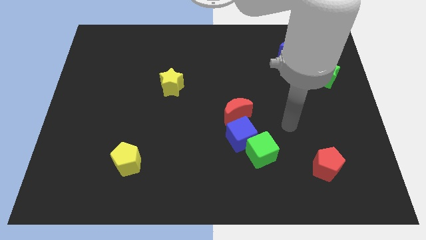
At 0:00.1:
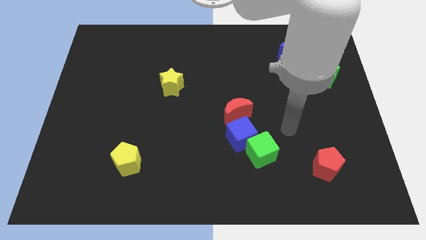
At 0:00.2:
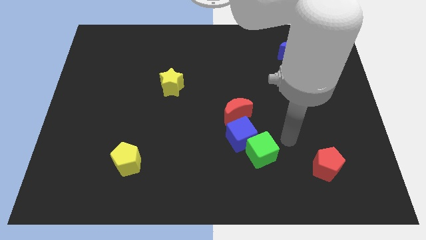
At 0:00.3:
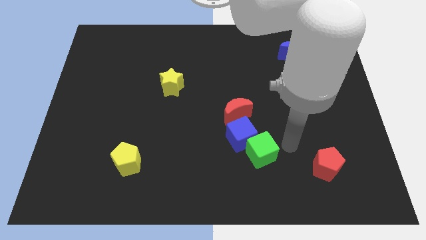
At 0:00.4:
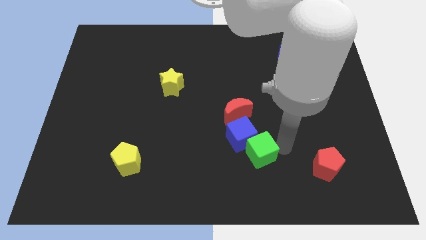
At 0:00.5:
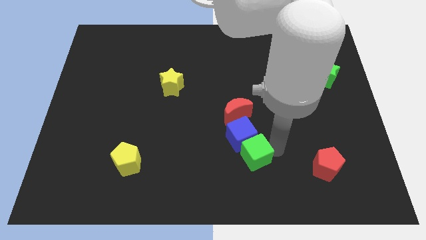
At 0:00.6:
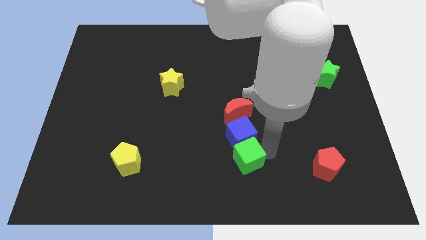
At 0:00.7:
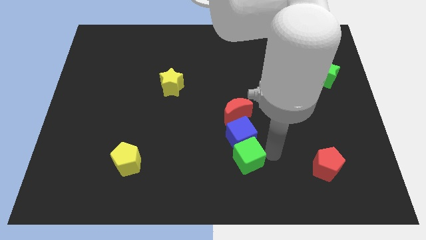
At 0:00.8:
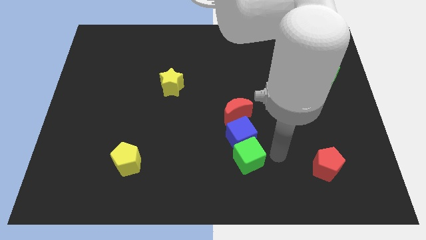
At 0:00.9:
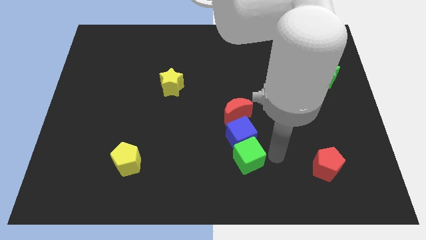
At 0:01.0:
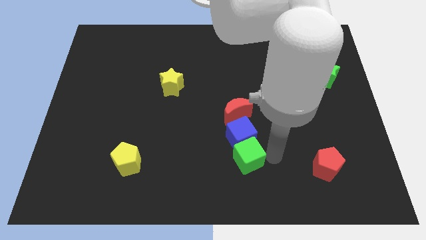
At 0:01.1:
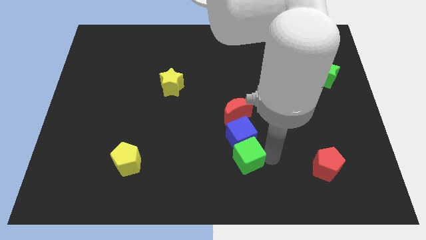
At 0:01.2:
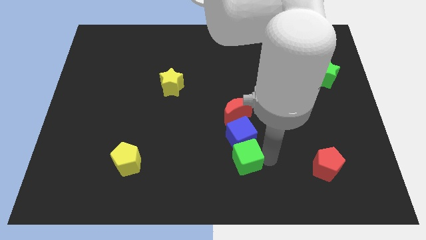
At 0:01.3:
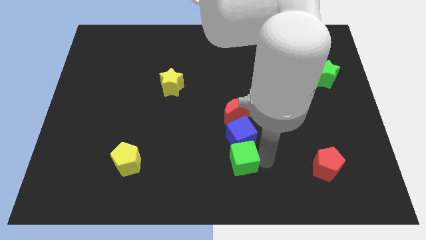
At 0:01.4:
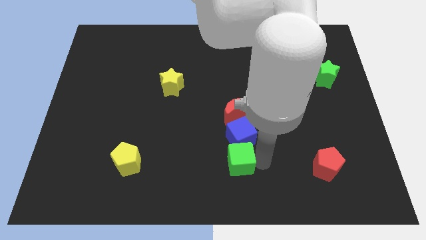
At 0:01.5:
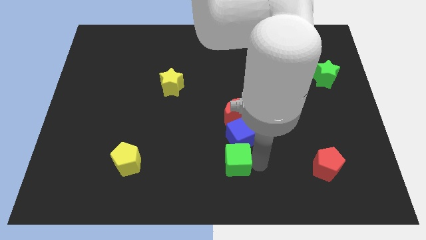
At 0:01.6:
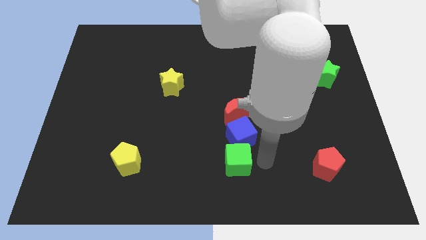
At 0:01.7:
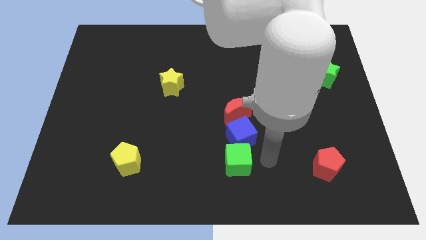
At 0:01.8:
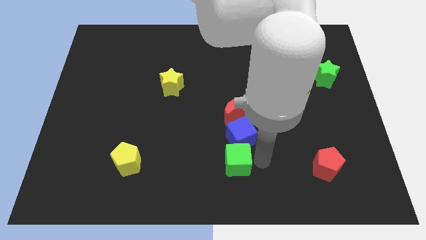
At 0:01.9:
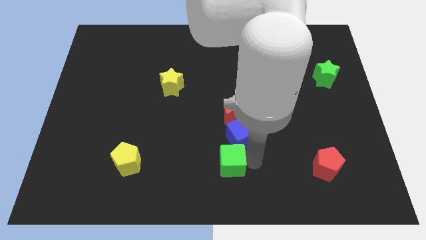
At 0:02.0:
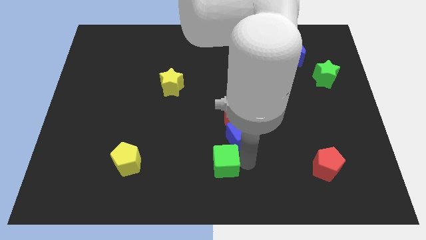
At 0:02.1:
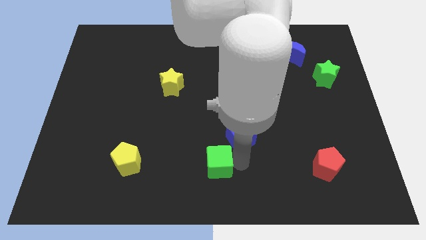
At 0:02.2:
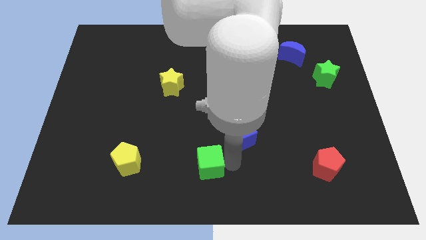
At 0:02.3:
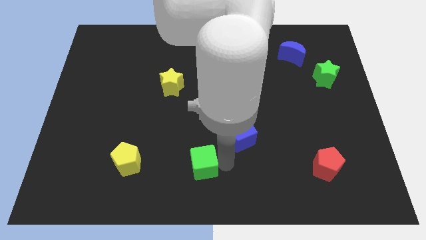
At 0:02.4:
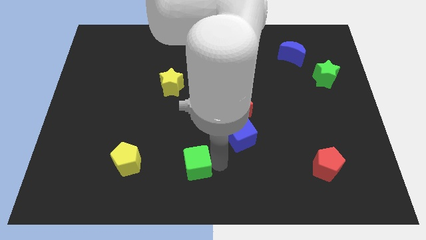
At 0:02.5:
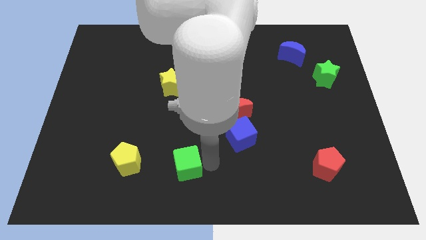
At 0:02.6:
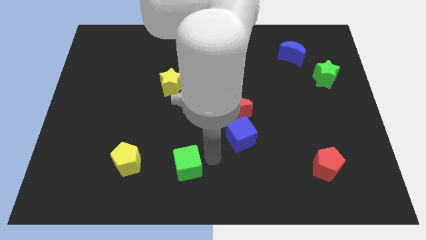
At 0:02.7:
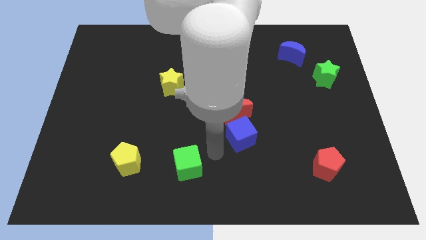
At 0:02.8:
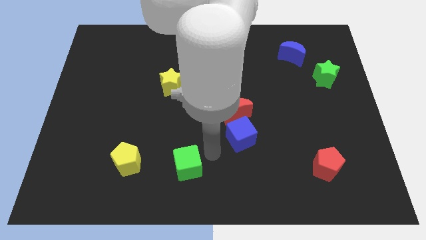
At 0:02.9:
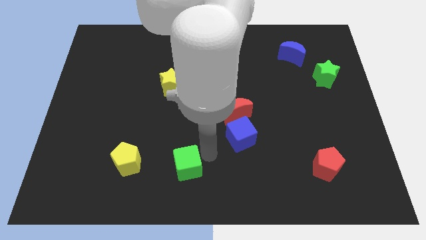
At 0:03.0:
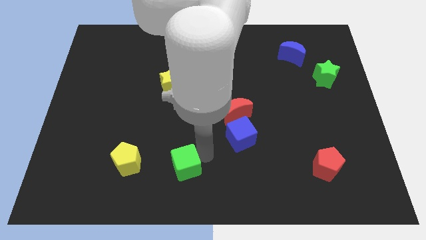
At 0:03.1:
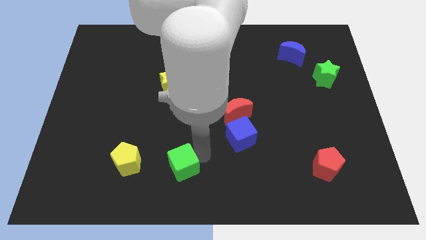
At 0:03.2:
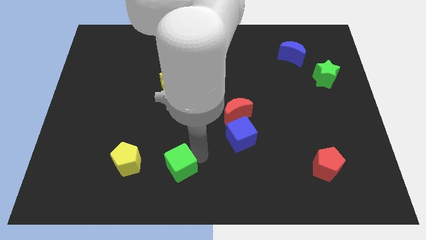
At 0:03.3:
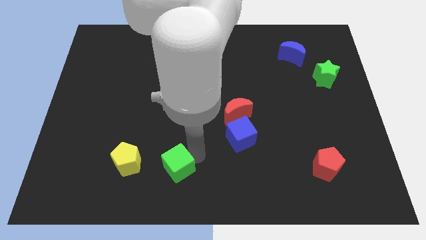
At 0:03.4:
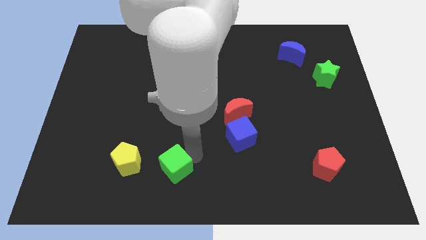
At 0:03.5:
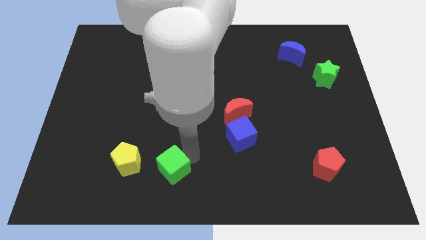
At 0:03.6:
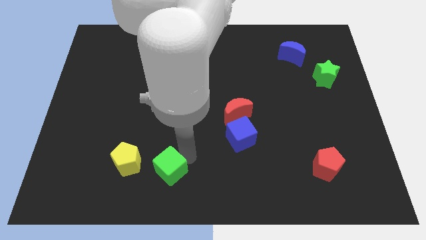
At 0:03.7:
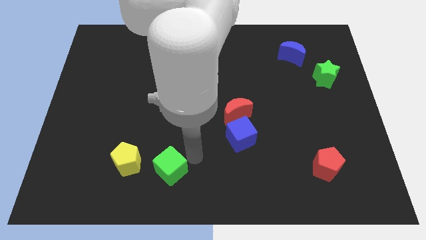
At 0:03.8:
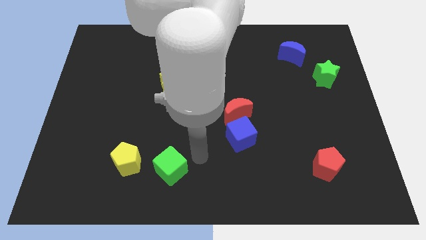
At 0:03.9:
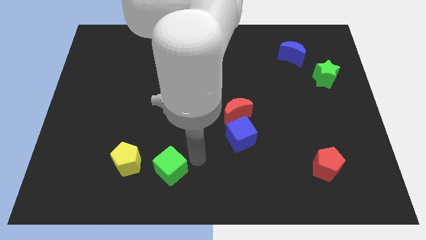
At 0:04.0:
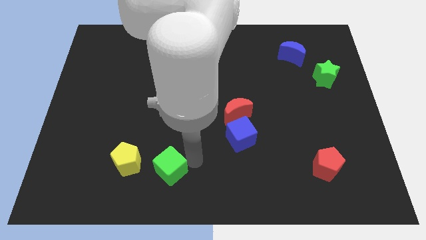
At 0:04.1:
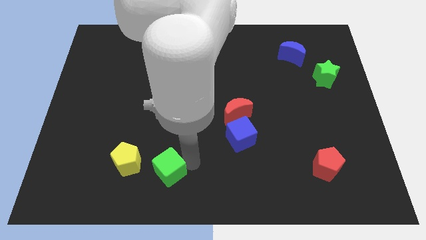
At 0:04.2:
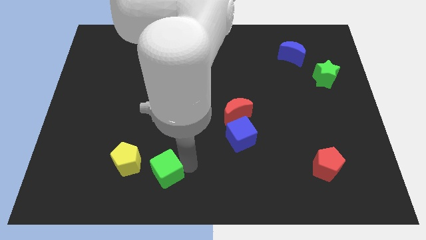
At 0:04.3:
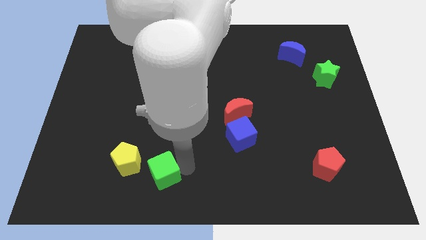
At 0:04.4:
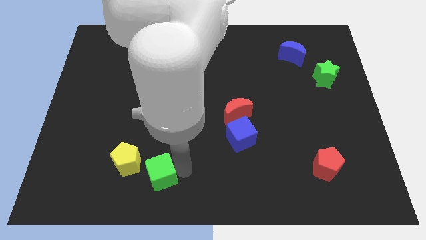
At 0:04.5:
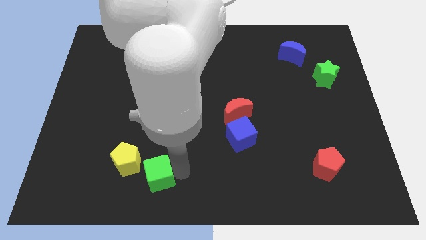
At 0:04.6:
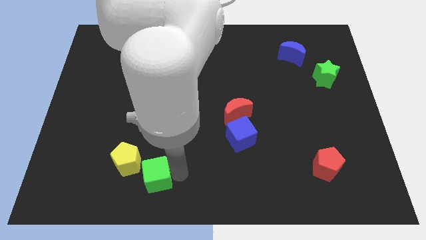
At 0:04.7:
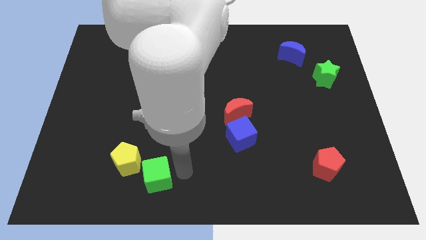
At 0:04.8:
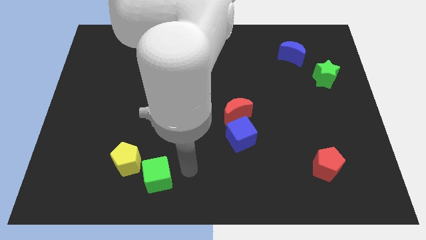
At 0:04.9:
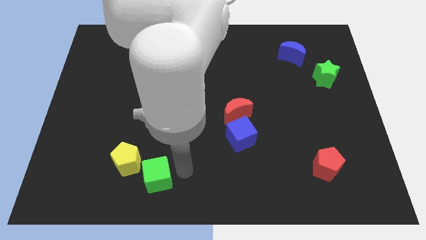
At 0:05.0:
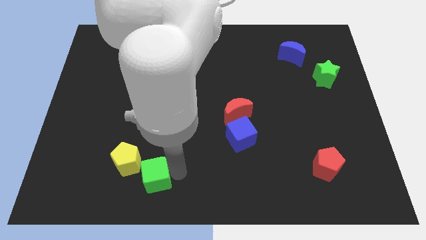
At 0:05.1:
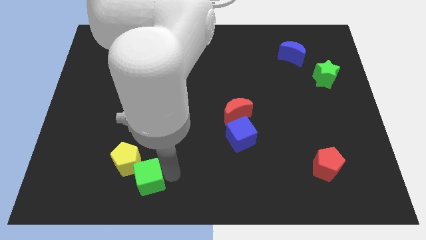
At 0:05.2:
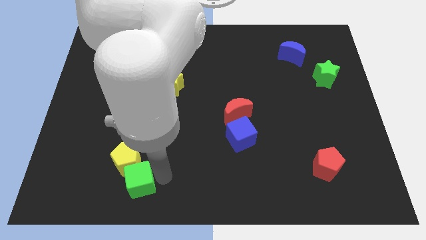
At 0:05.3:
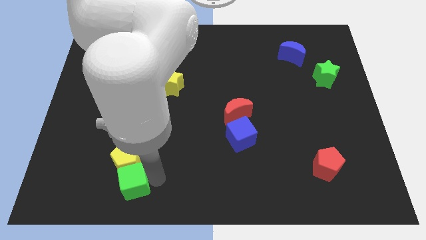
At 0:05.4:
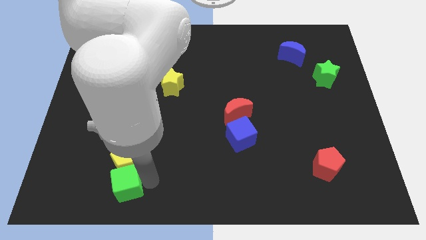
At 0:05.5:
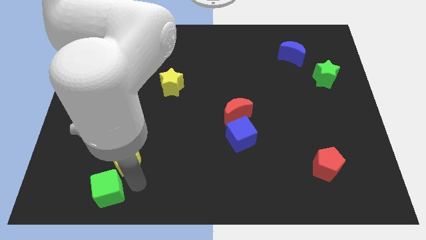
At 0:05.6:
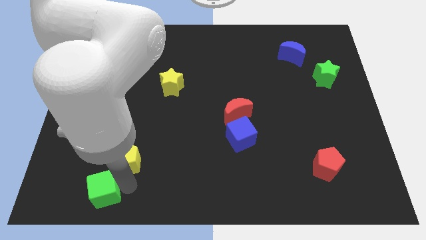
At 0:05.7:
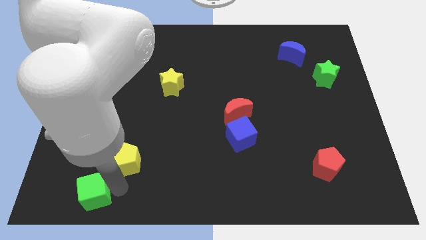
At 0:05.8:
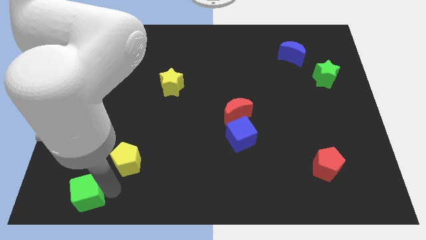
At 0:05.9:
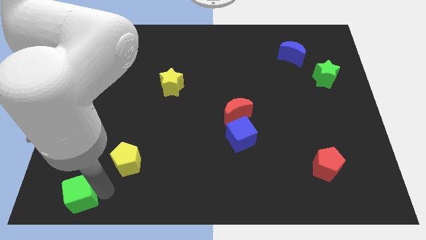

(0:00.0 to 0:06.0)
move the green cube to the bottom left of the board

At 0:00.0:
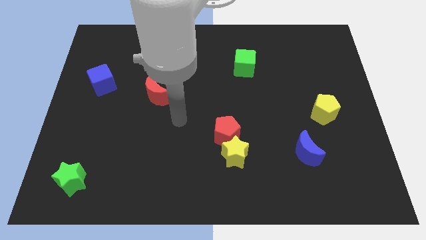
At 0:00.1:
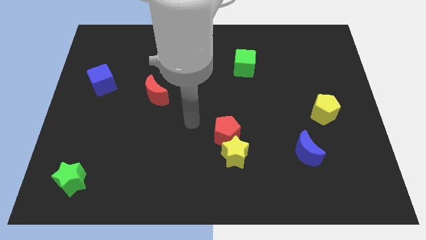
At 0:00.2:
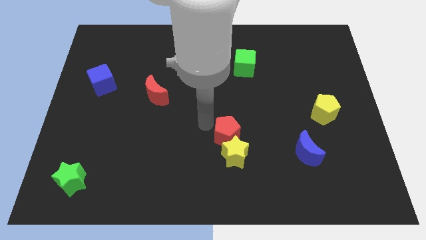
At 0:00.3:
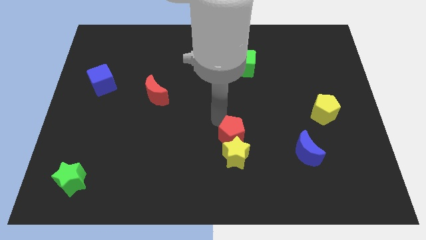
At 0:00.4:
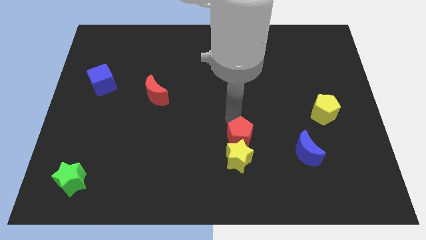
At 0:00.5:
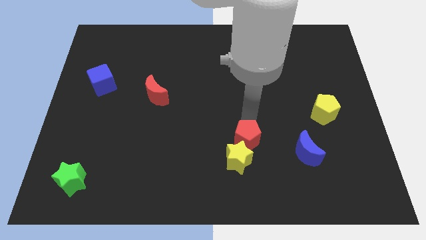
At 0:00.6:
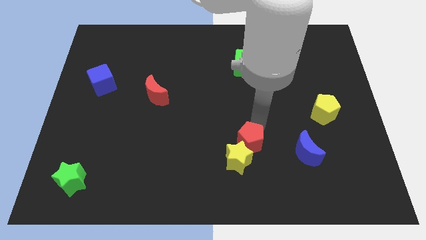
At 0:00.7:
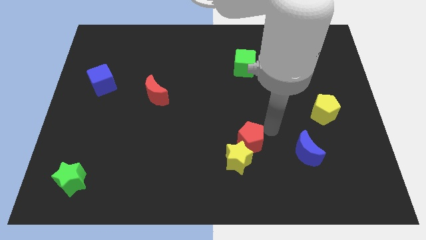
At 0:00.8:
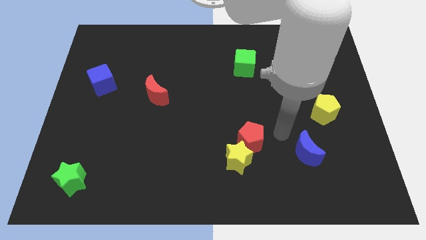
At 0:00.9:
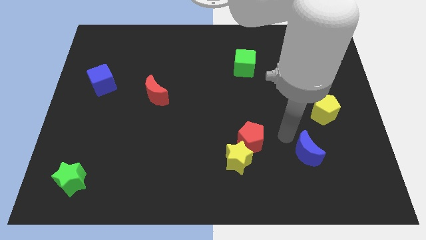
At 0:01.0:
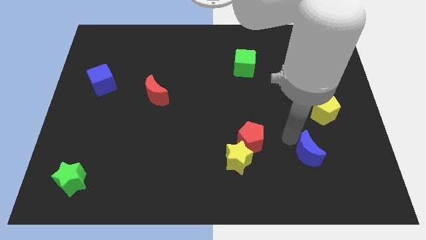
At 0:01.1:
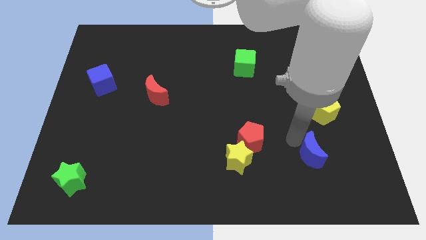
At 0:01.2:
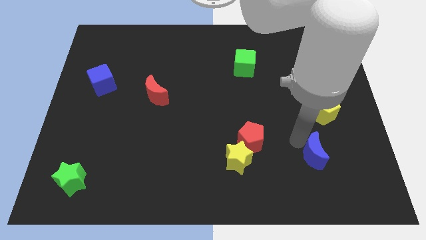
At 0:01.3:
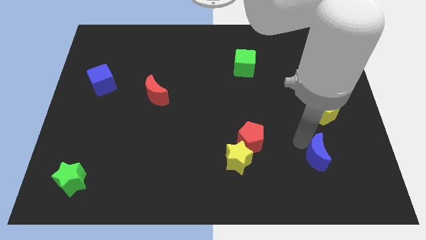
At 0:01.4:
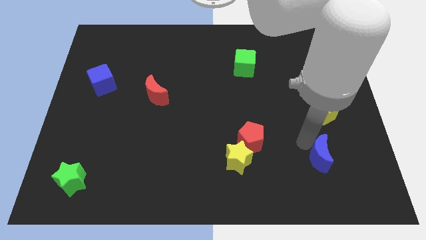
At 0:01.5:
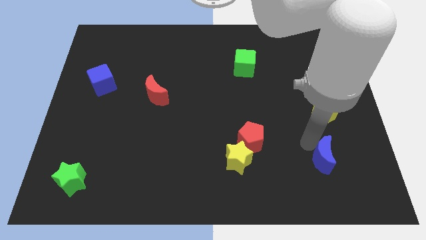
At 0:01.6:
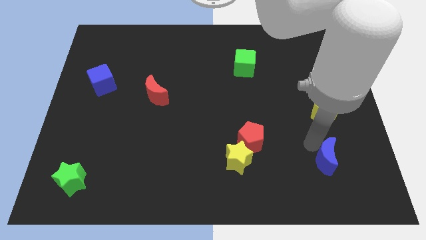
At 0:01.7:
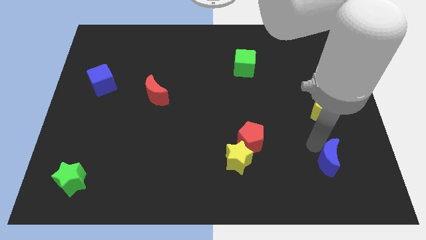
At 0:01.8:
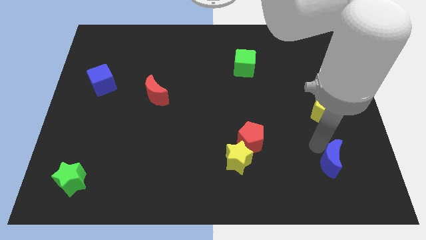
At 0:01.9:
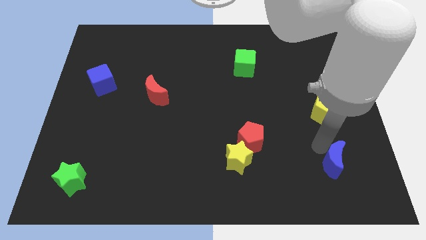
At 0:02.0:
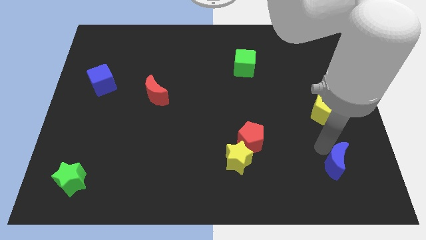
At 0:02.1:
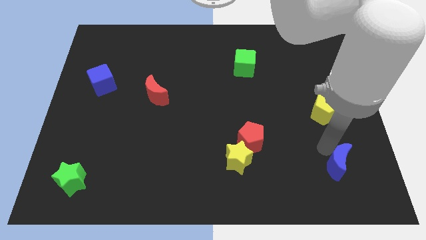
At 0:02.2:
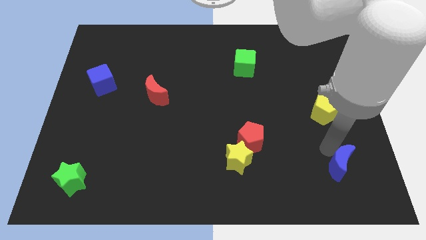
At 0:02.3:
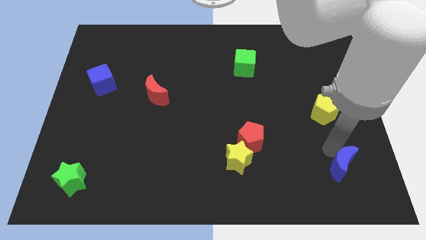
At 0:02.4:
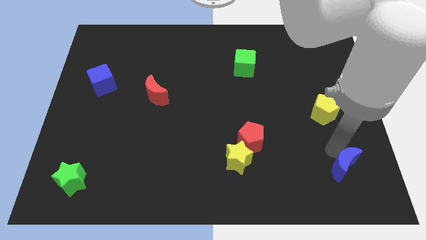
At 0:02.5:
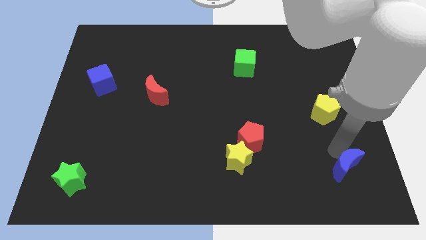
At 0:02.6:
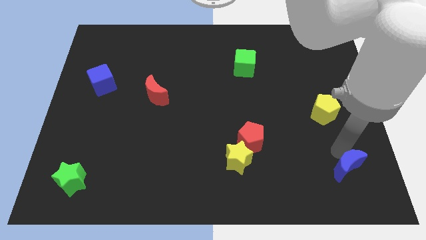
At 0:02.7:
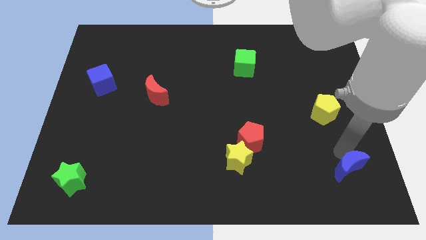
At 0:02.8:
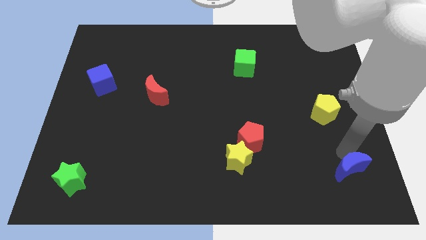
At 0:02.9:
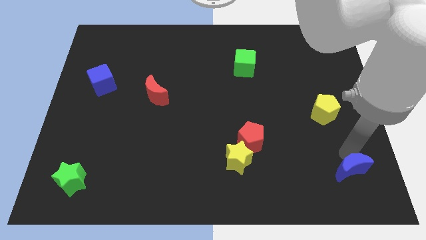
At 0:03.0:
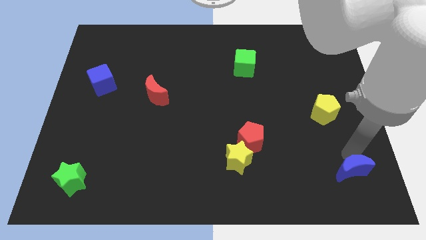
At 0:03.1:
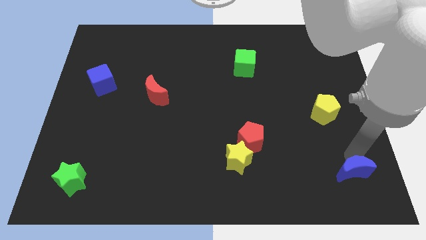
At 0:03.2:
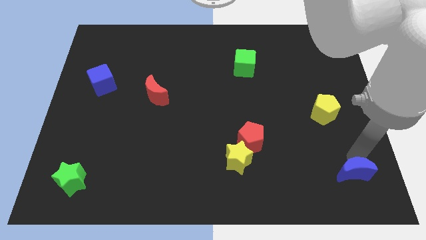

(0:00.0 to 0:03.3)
put the blue moon to the bottom right corner
